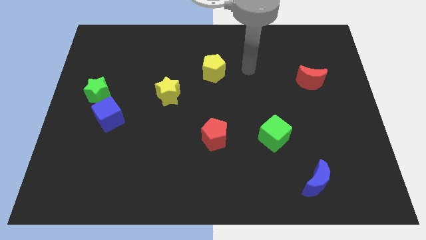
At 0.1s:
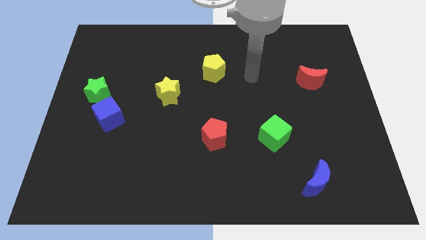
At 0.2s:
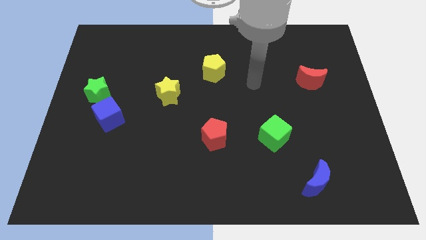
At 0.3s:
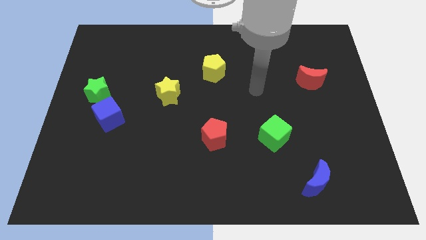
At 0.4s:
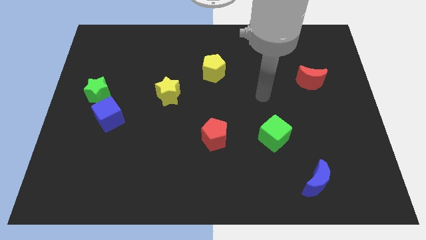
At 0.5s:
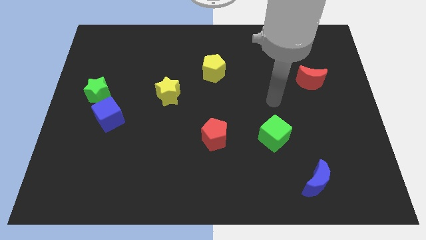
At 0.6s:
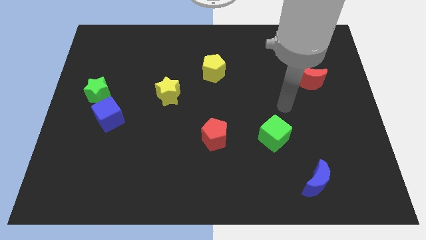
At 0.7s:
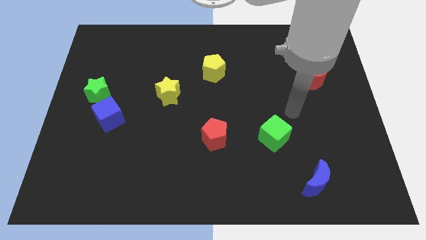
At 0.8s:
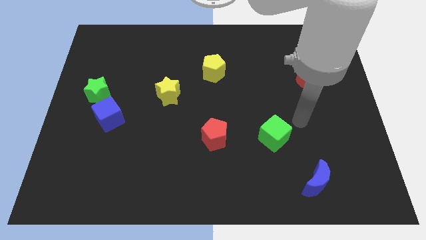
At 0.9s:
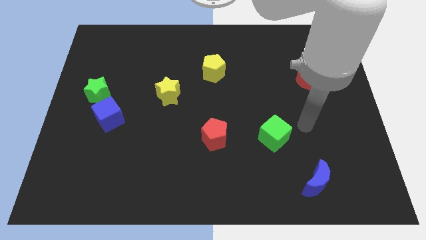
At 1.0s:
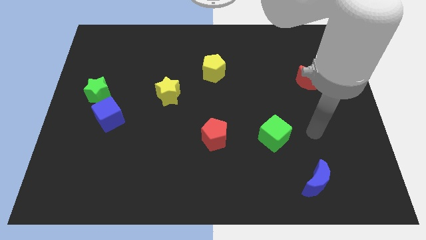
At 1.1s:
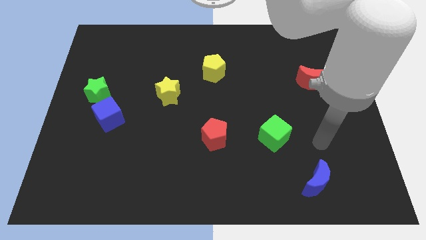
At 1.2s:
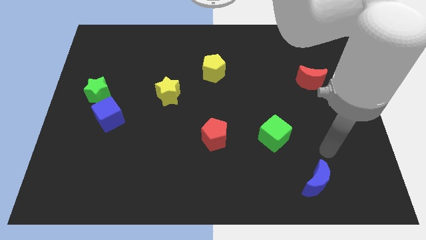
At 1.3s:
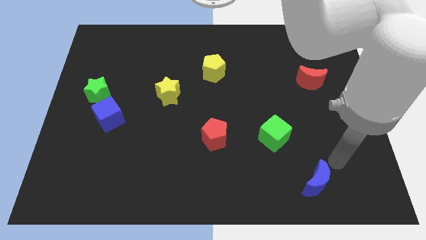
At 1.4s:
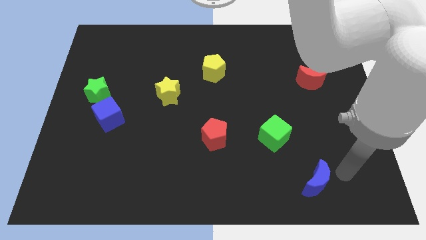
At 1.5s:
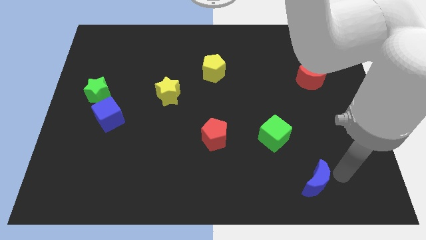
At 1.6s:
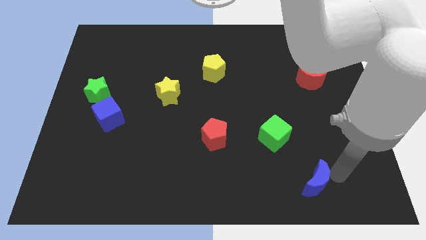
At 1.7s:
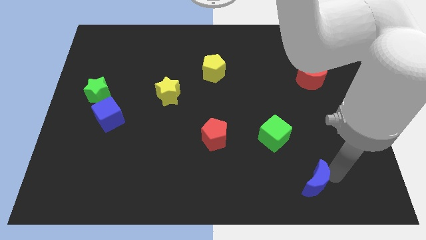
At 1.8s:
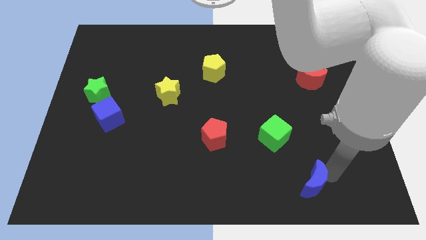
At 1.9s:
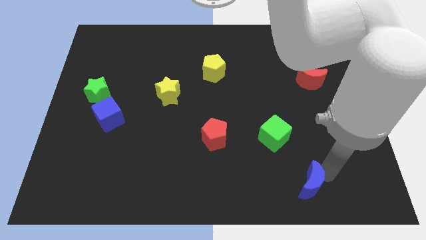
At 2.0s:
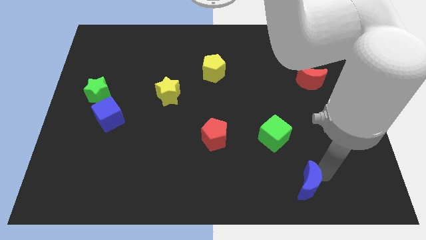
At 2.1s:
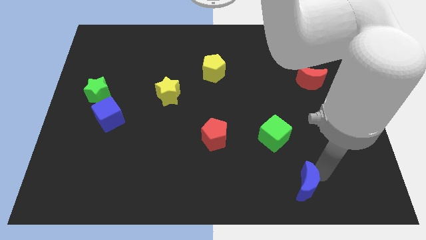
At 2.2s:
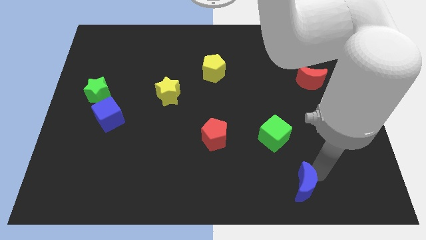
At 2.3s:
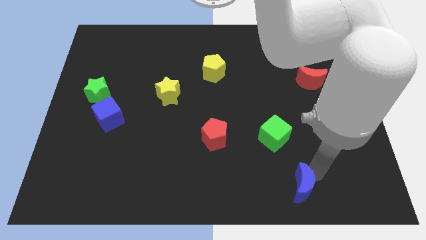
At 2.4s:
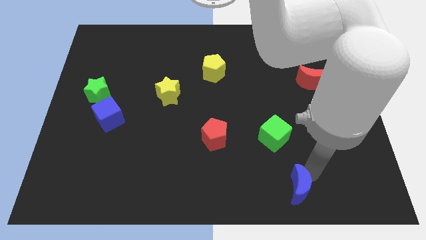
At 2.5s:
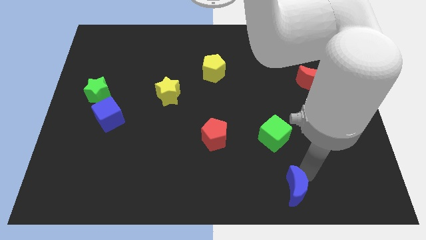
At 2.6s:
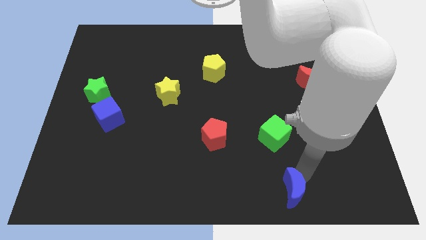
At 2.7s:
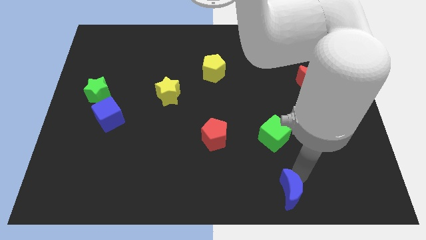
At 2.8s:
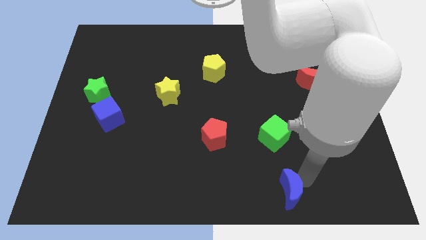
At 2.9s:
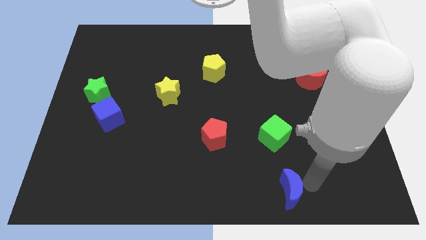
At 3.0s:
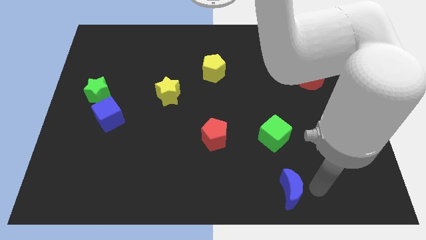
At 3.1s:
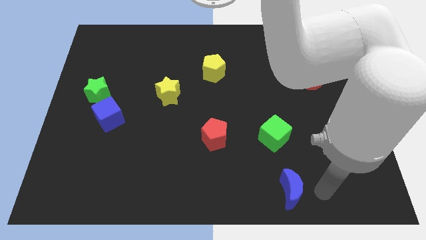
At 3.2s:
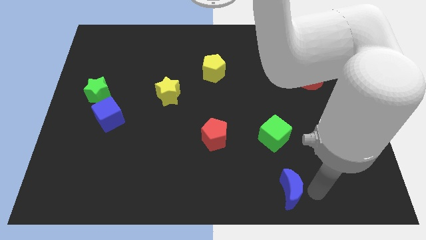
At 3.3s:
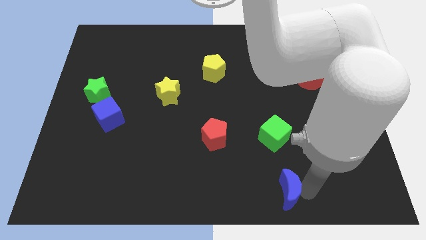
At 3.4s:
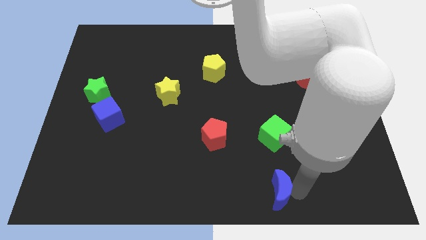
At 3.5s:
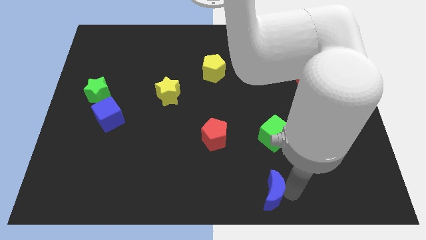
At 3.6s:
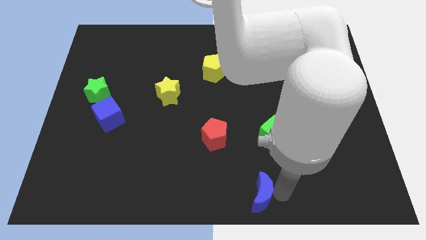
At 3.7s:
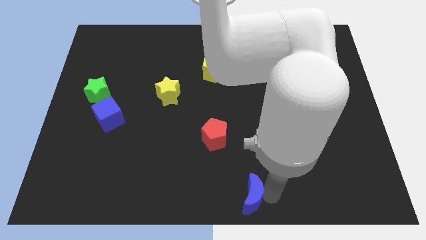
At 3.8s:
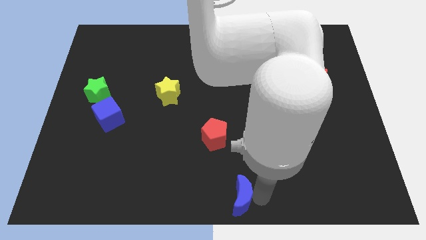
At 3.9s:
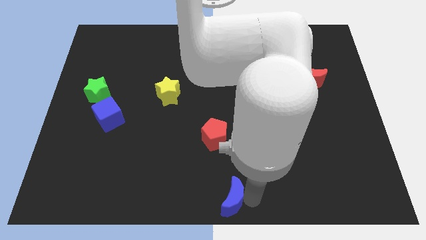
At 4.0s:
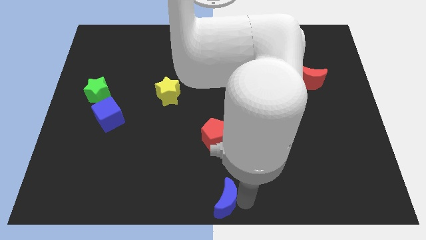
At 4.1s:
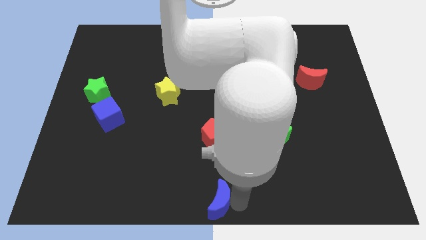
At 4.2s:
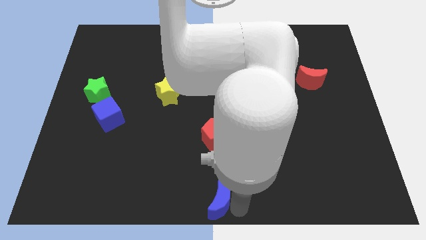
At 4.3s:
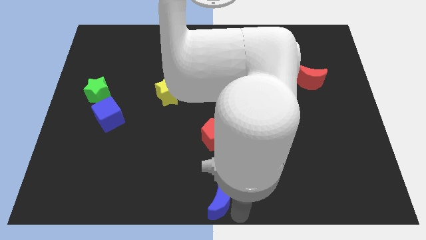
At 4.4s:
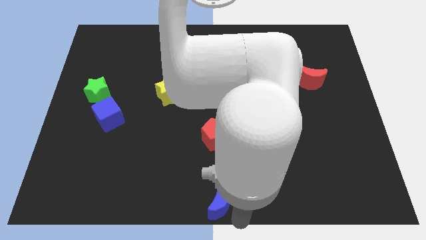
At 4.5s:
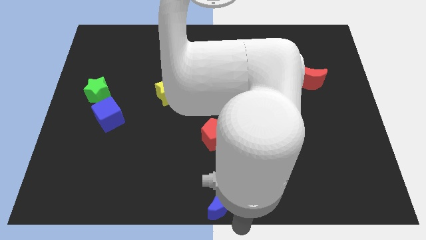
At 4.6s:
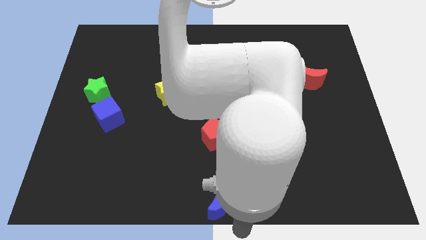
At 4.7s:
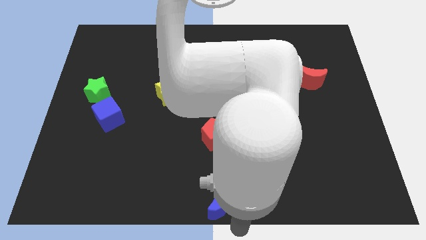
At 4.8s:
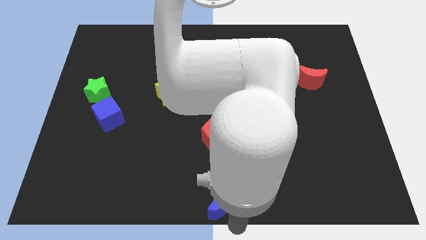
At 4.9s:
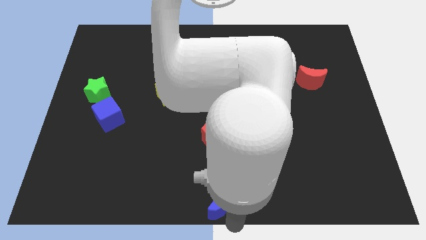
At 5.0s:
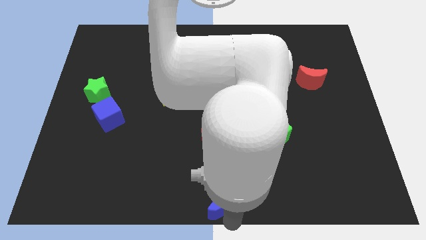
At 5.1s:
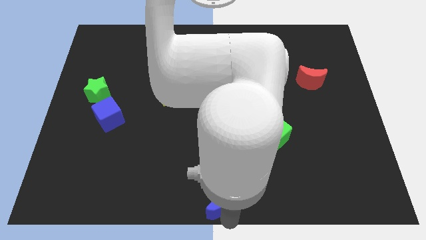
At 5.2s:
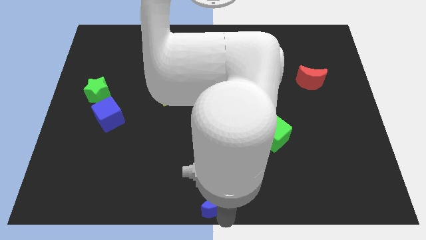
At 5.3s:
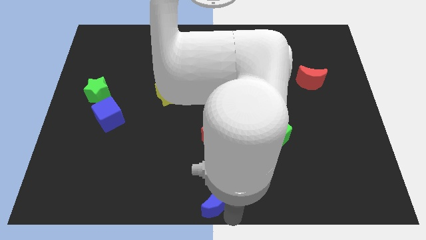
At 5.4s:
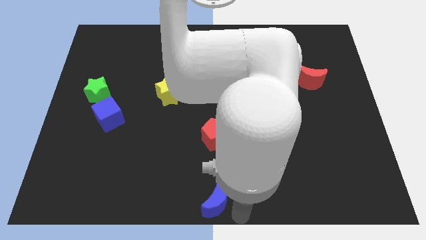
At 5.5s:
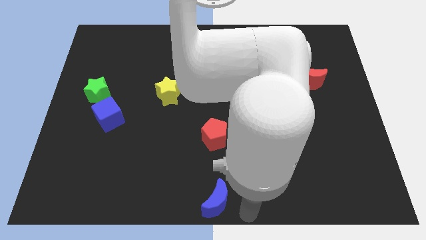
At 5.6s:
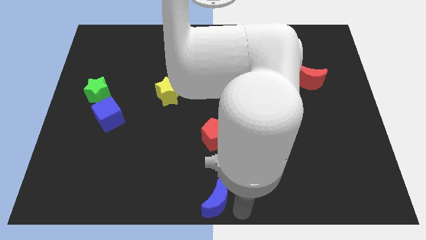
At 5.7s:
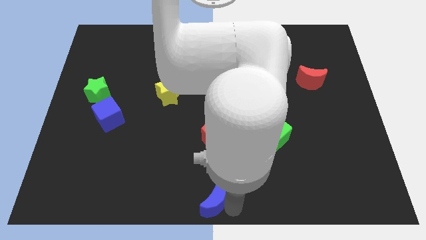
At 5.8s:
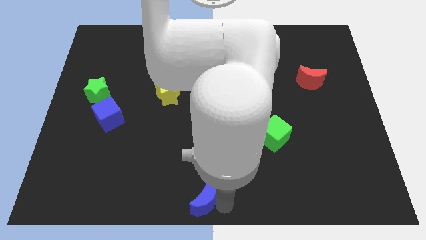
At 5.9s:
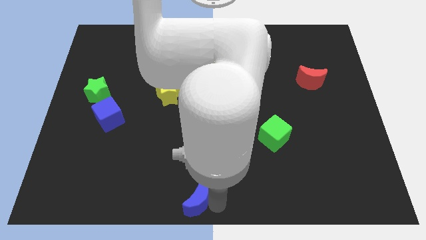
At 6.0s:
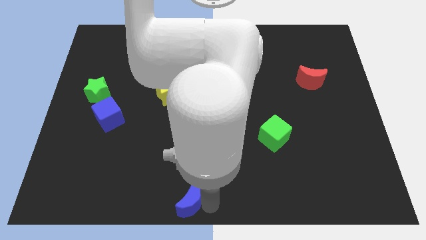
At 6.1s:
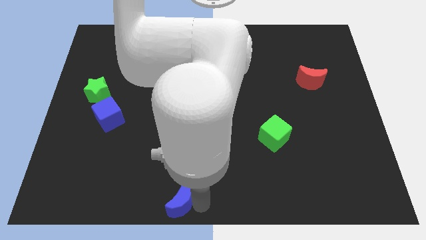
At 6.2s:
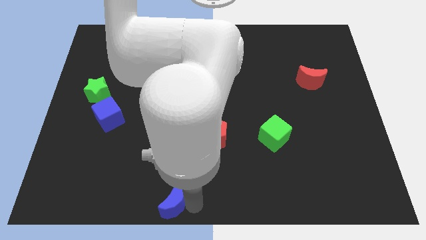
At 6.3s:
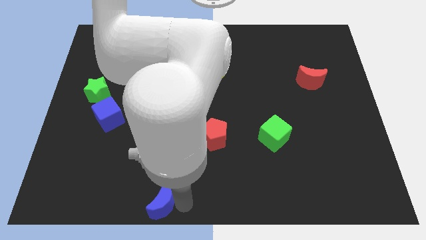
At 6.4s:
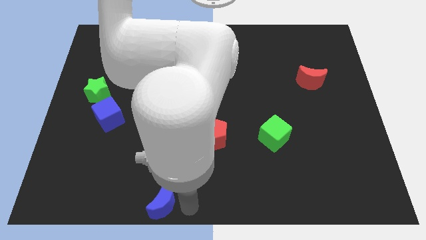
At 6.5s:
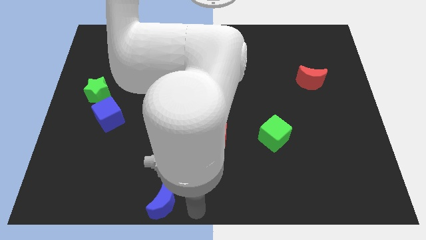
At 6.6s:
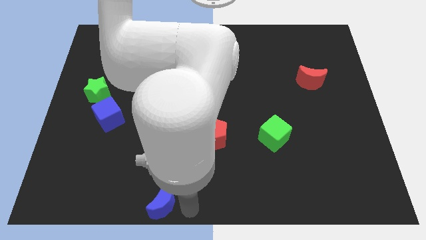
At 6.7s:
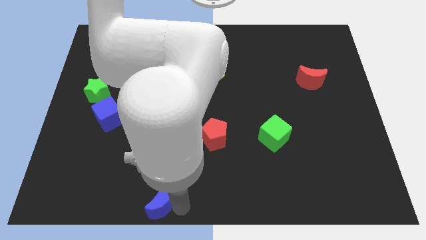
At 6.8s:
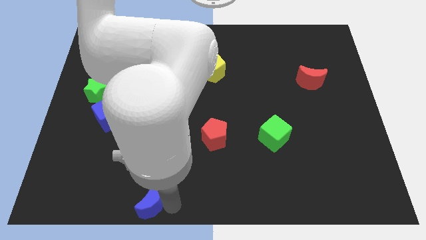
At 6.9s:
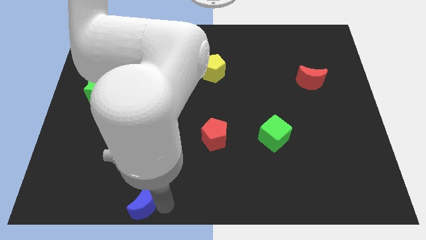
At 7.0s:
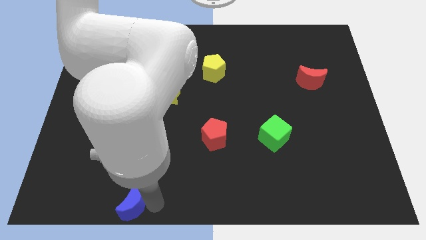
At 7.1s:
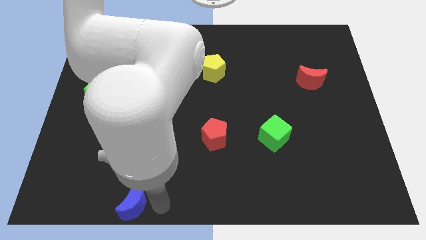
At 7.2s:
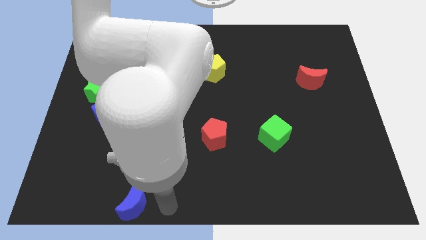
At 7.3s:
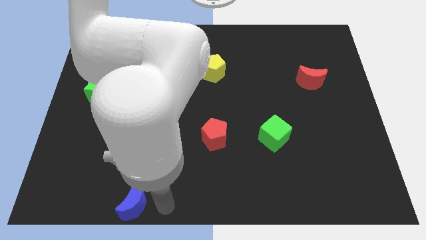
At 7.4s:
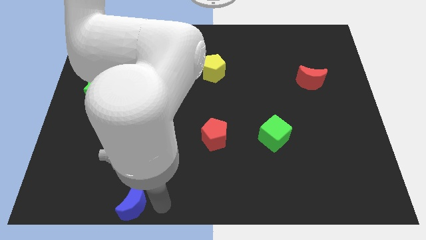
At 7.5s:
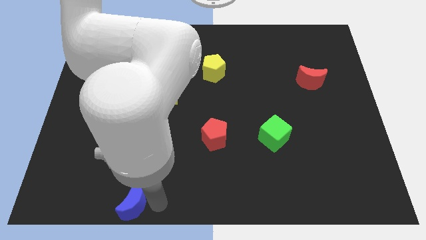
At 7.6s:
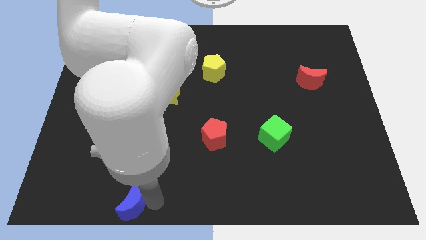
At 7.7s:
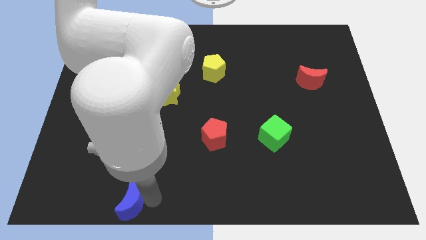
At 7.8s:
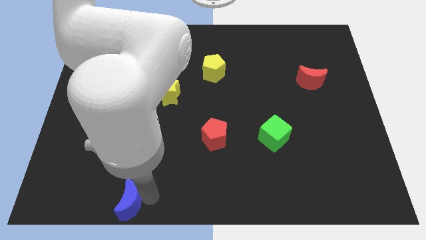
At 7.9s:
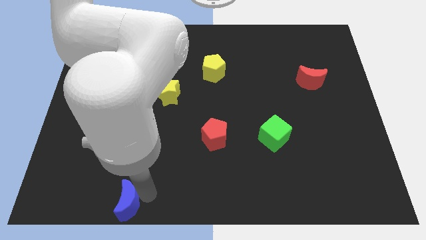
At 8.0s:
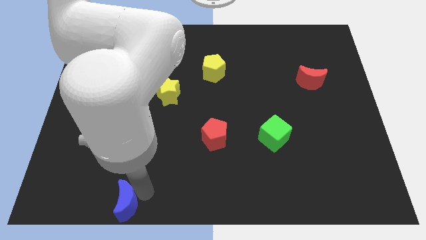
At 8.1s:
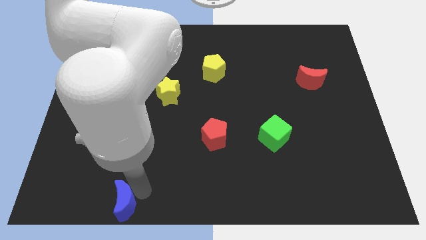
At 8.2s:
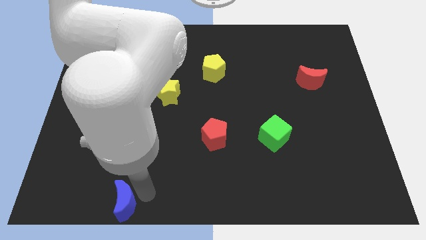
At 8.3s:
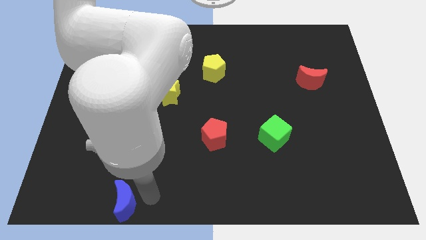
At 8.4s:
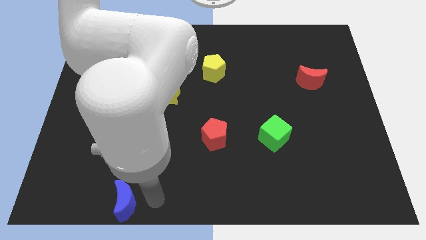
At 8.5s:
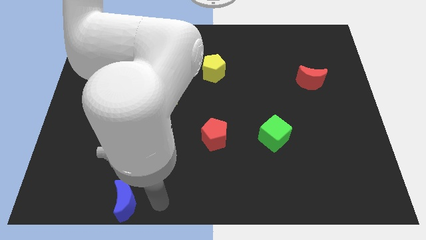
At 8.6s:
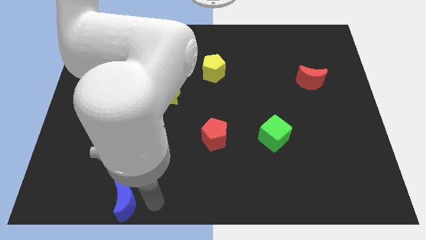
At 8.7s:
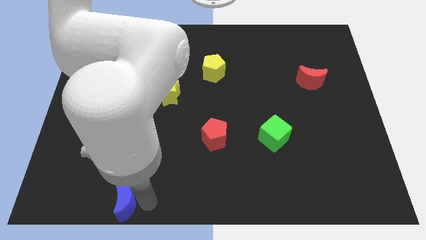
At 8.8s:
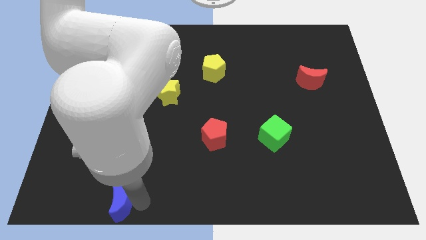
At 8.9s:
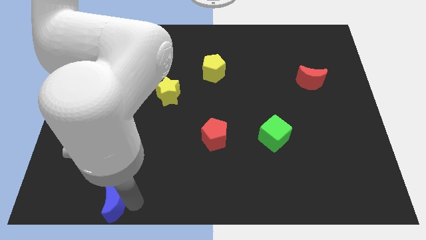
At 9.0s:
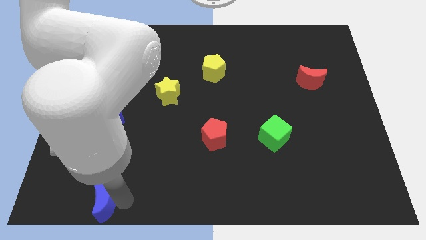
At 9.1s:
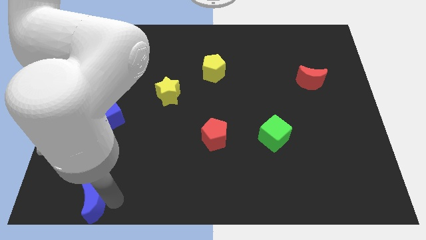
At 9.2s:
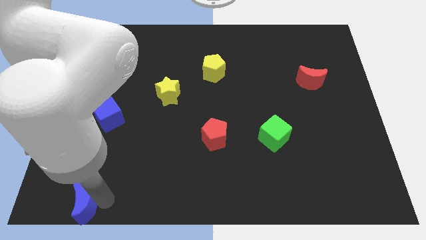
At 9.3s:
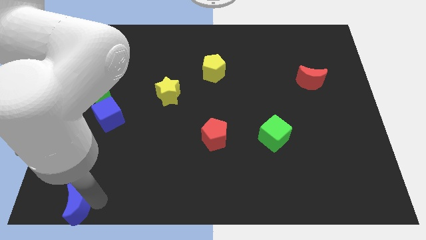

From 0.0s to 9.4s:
move the blue moon to the bottom left of the board
